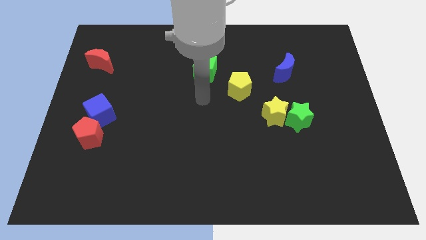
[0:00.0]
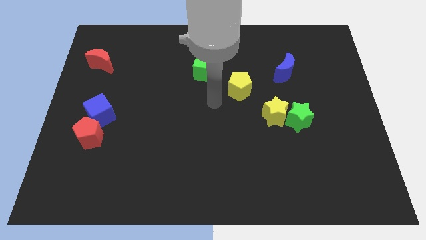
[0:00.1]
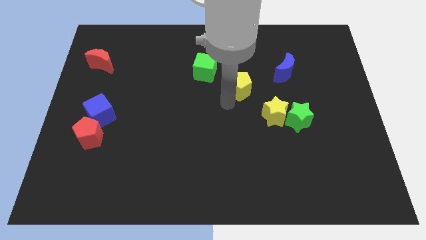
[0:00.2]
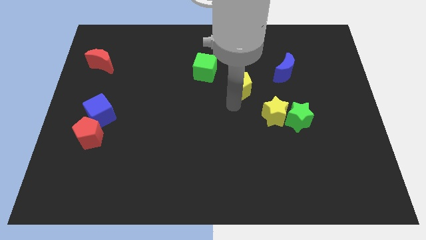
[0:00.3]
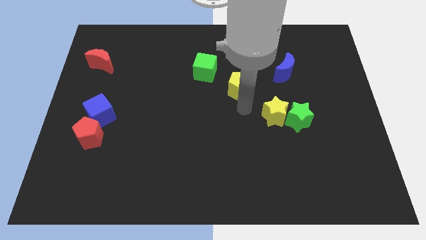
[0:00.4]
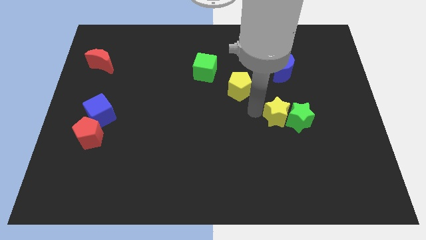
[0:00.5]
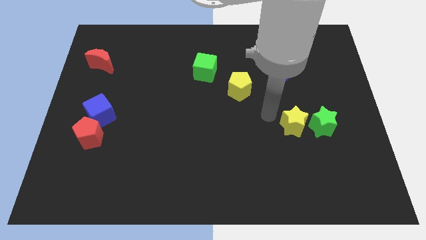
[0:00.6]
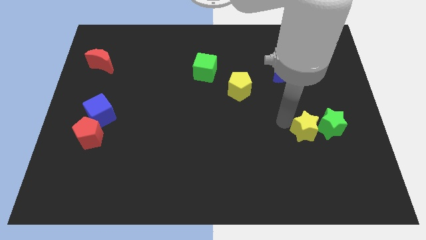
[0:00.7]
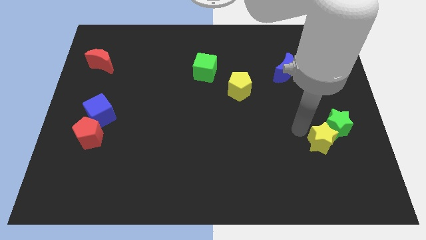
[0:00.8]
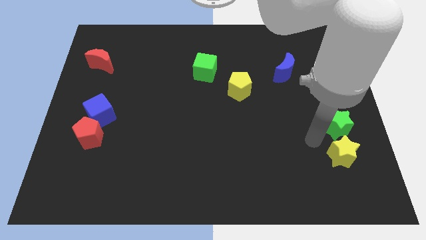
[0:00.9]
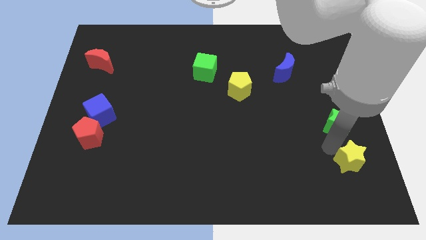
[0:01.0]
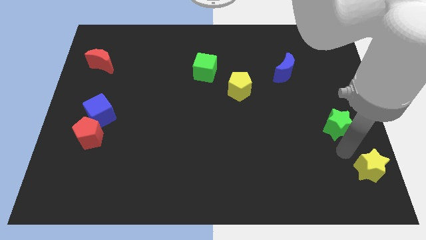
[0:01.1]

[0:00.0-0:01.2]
move the green star away from the yellow star

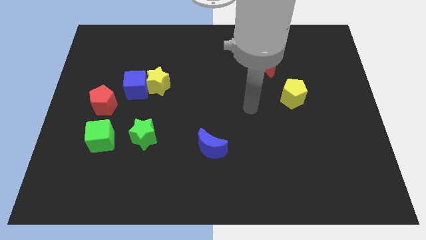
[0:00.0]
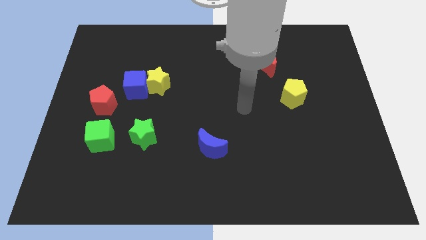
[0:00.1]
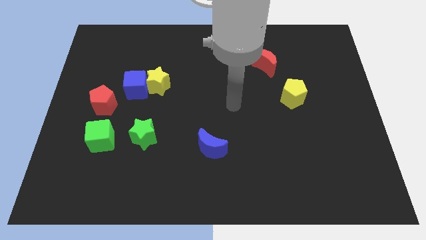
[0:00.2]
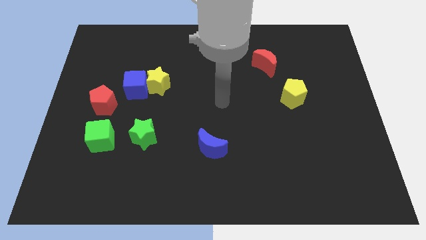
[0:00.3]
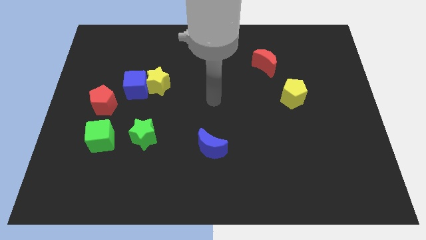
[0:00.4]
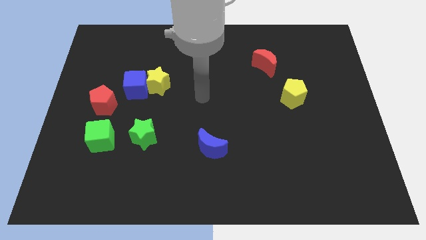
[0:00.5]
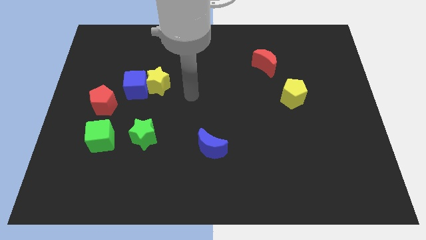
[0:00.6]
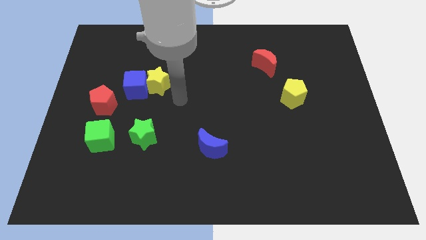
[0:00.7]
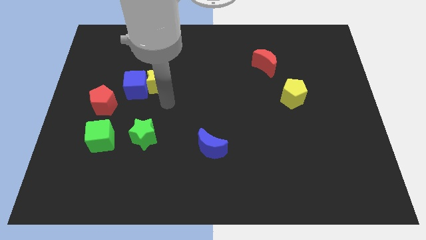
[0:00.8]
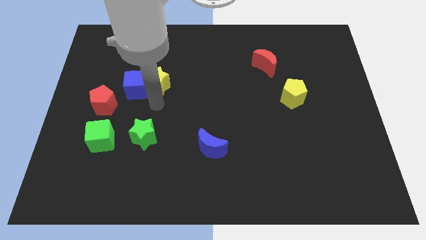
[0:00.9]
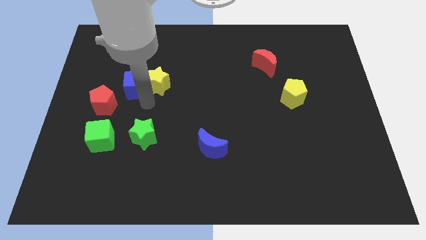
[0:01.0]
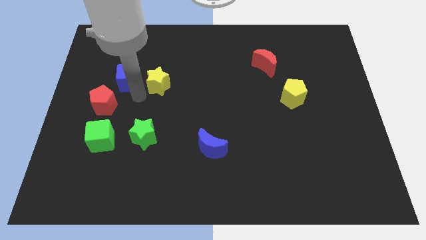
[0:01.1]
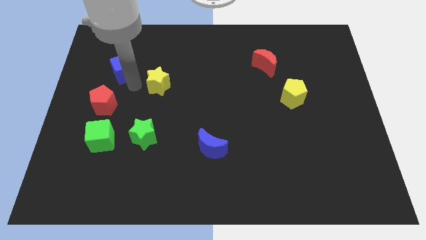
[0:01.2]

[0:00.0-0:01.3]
pull the yellow star apart from the blue cube

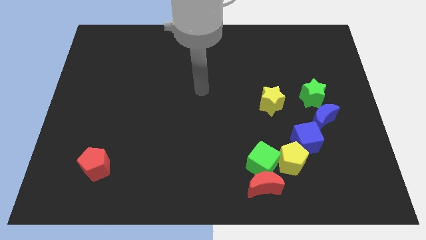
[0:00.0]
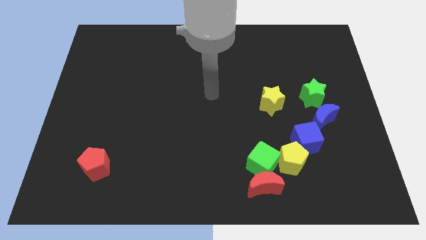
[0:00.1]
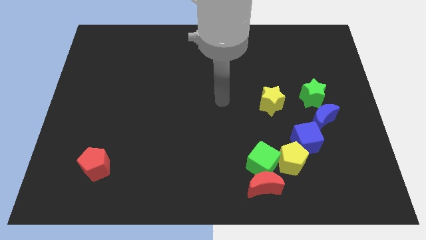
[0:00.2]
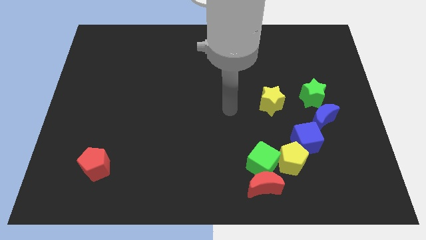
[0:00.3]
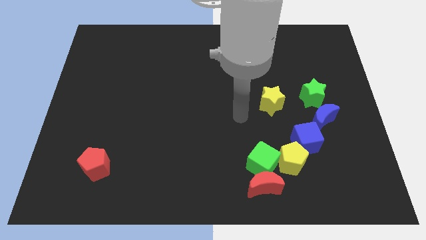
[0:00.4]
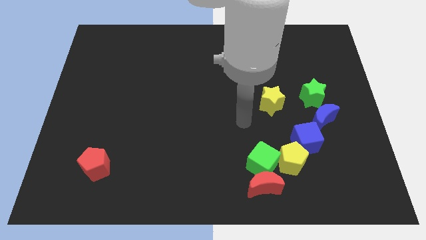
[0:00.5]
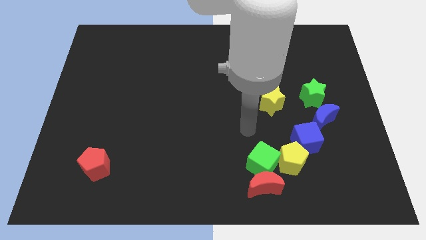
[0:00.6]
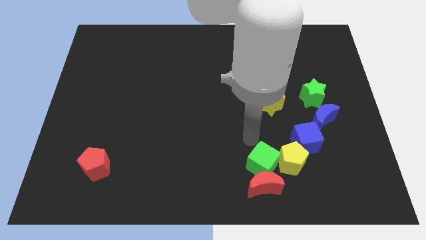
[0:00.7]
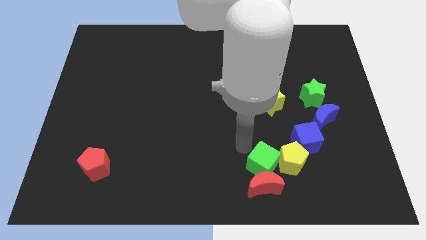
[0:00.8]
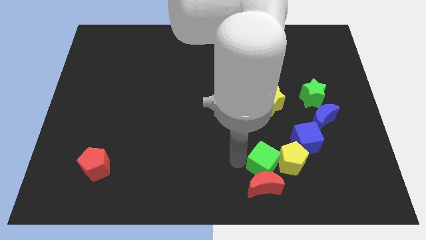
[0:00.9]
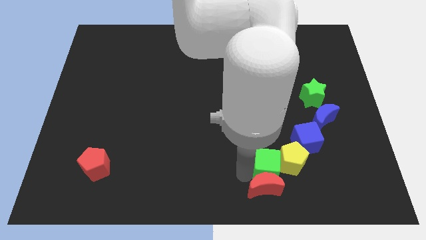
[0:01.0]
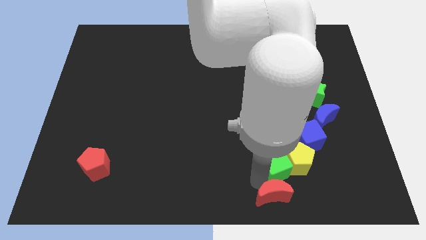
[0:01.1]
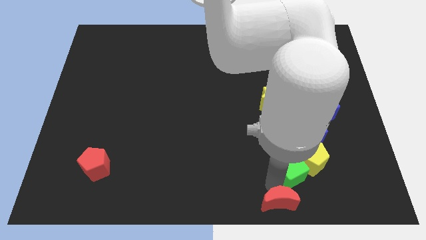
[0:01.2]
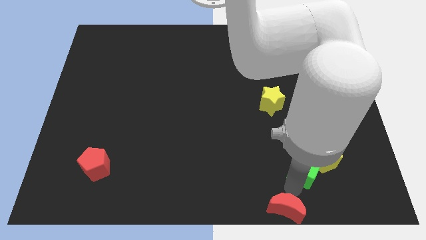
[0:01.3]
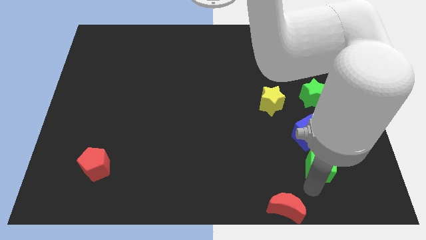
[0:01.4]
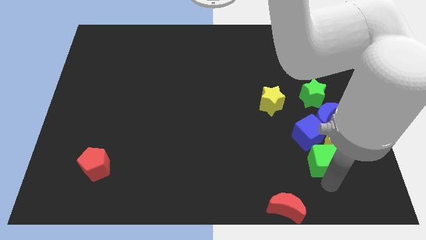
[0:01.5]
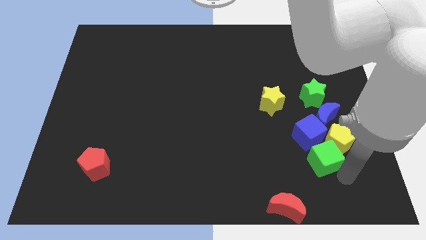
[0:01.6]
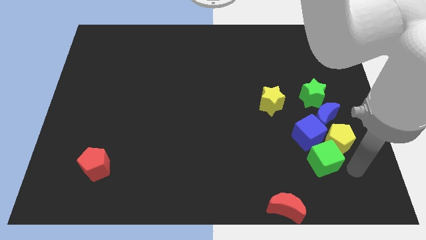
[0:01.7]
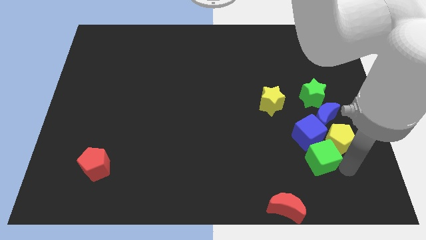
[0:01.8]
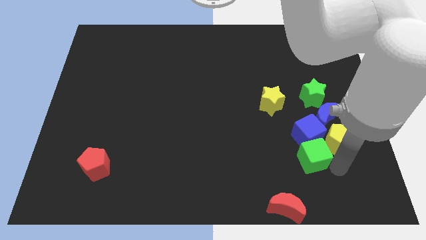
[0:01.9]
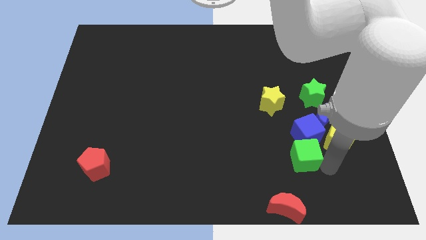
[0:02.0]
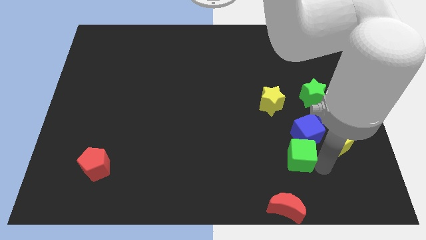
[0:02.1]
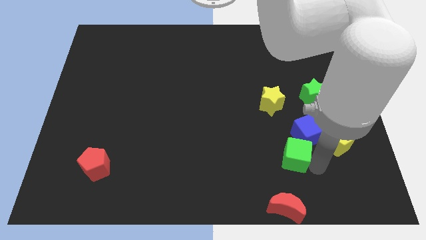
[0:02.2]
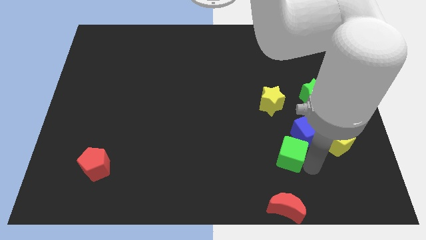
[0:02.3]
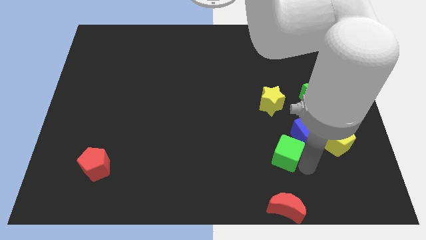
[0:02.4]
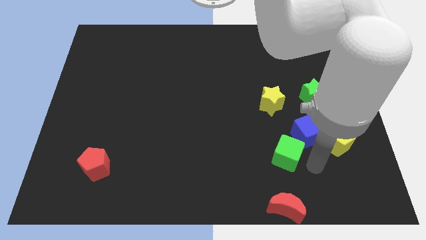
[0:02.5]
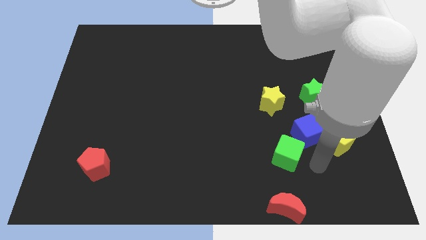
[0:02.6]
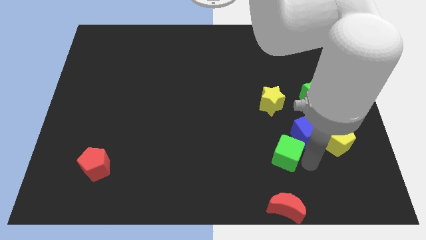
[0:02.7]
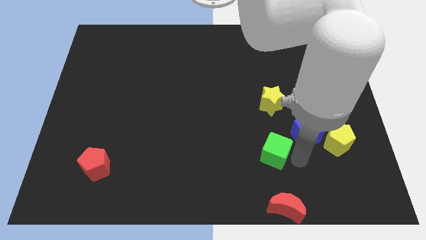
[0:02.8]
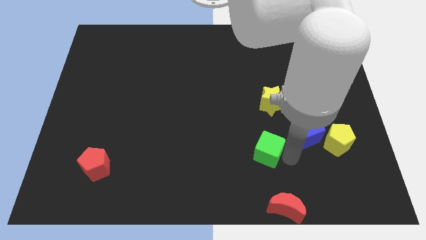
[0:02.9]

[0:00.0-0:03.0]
pull the green cube apart from the red moon and yellow pentagon

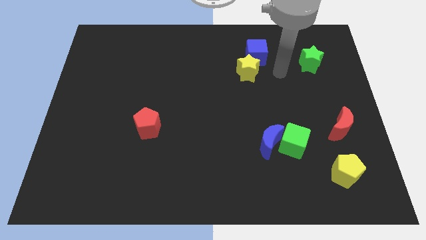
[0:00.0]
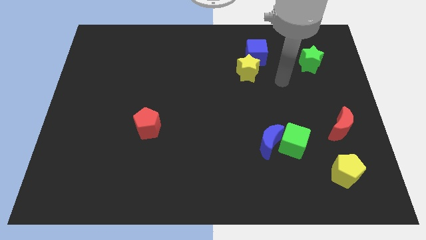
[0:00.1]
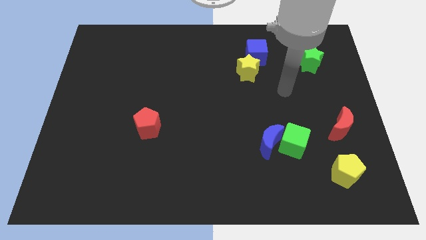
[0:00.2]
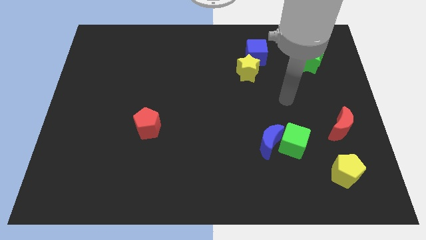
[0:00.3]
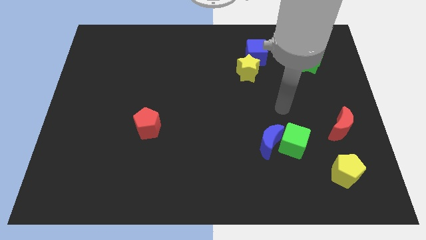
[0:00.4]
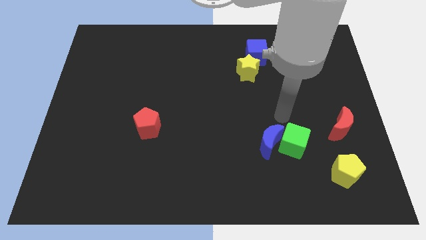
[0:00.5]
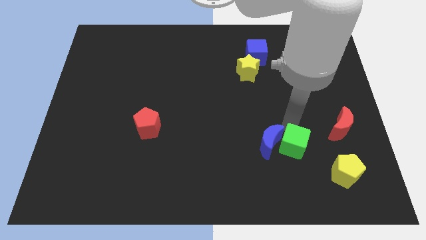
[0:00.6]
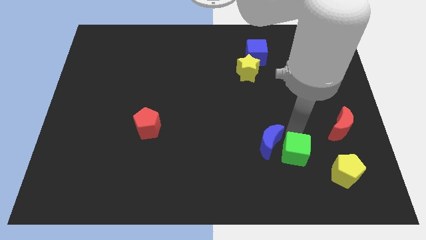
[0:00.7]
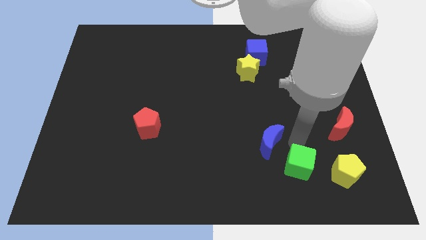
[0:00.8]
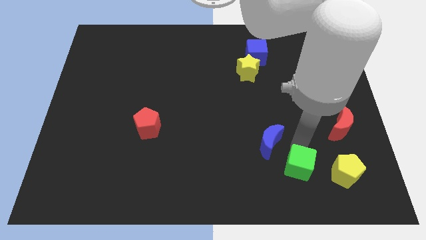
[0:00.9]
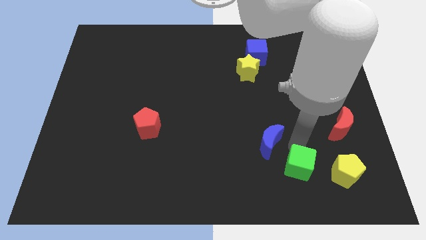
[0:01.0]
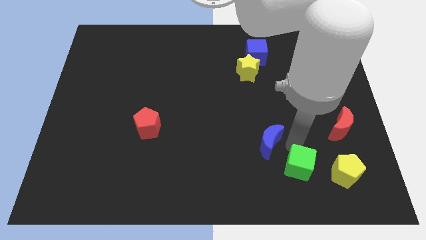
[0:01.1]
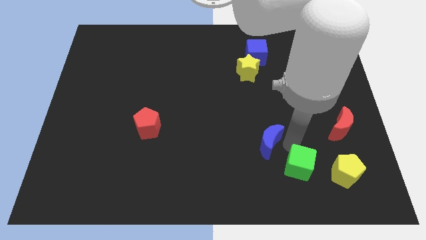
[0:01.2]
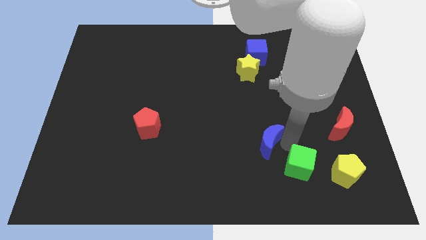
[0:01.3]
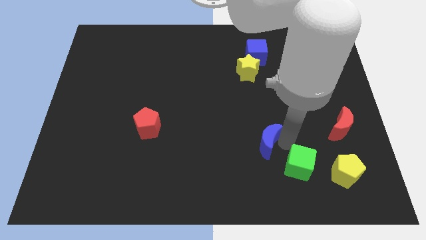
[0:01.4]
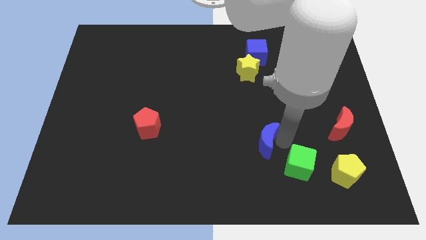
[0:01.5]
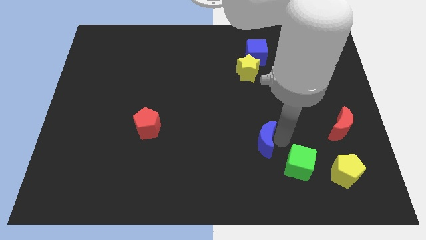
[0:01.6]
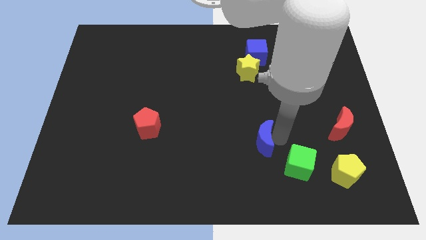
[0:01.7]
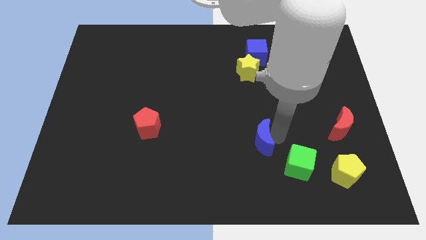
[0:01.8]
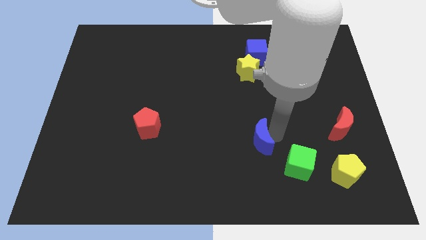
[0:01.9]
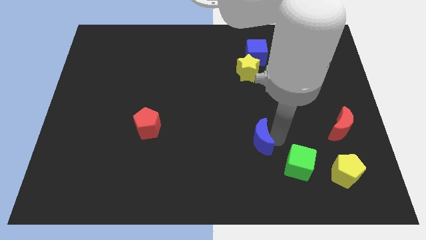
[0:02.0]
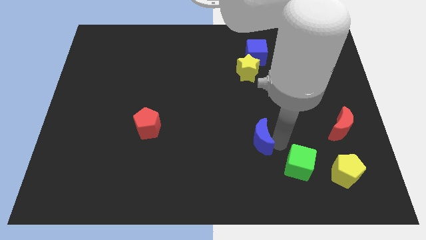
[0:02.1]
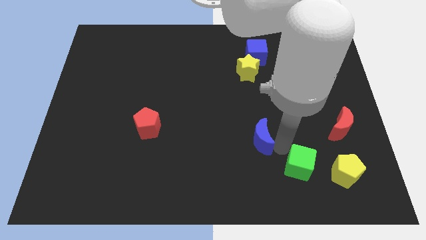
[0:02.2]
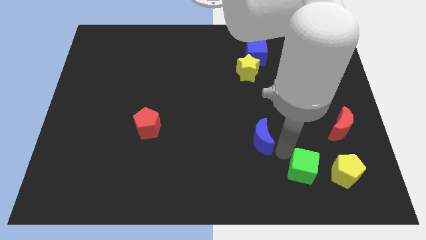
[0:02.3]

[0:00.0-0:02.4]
pull the blue moon apart from the green cube

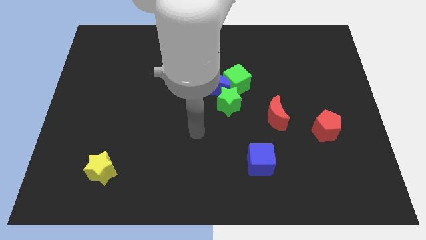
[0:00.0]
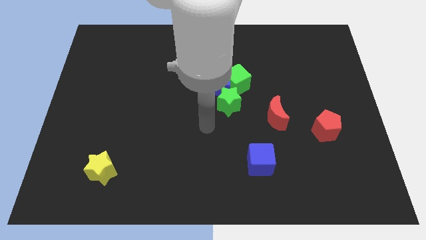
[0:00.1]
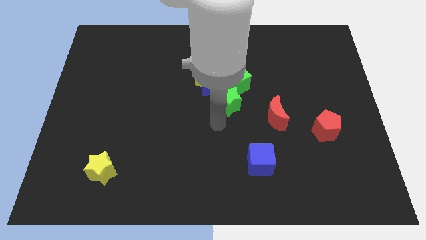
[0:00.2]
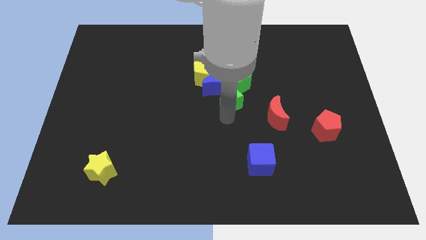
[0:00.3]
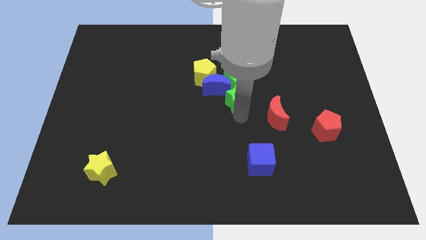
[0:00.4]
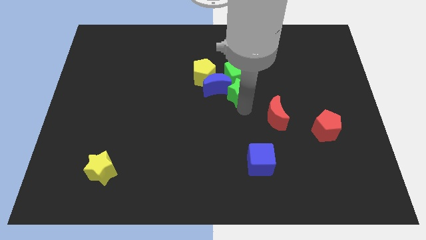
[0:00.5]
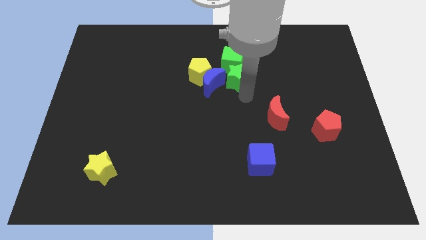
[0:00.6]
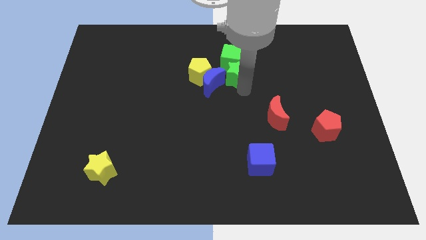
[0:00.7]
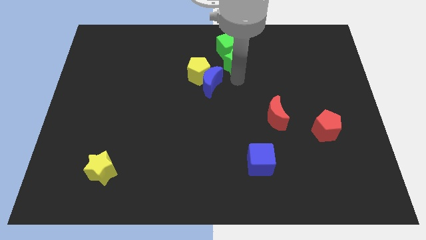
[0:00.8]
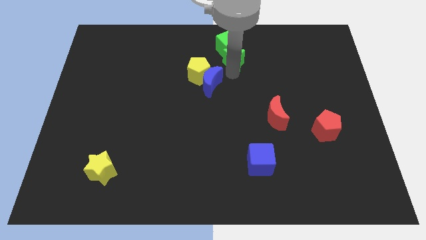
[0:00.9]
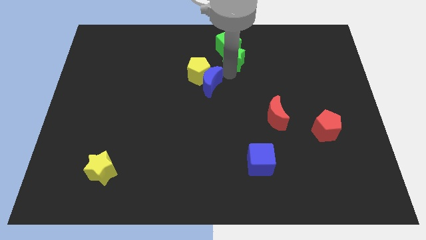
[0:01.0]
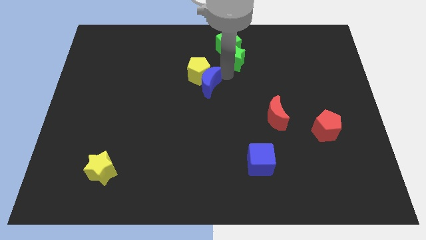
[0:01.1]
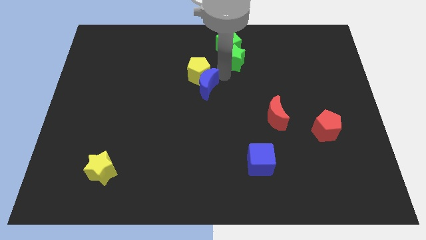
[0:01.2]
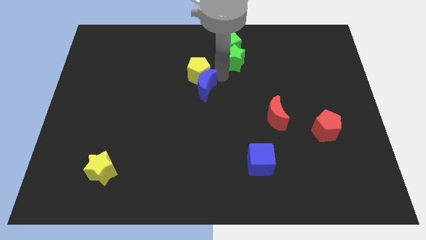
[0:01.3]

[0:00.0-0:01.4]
separate the blue moon from the clump
